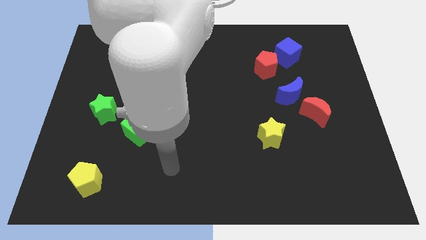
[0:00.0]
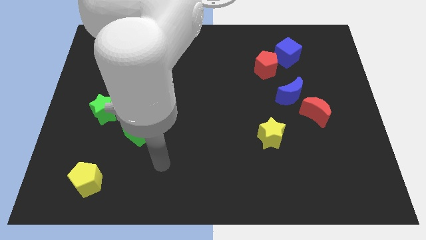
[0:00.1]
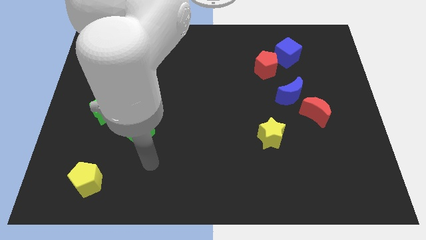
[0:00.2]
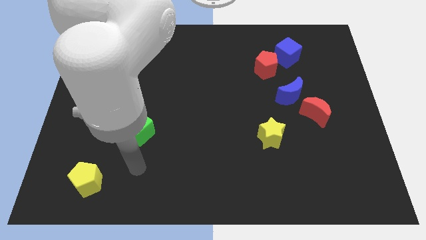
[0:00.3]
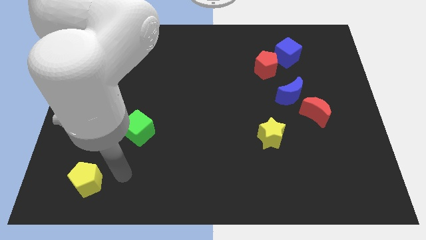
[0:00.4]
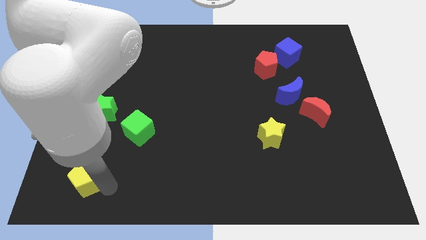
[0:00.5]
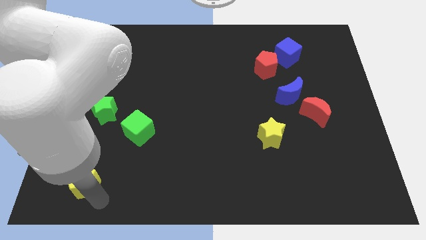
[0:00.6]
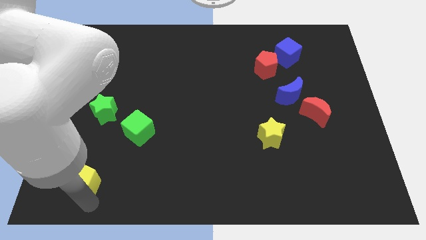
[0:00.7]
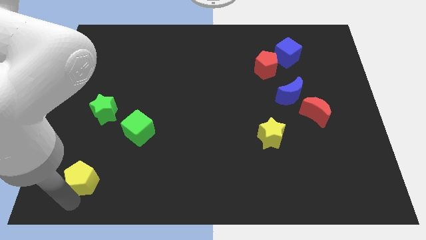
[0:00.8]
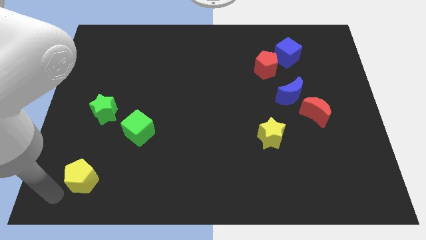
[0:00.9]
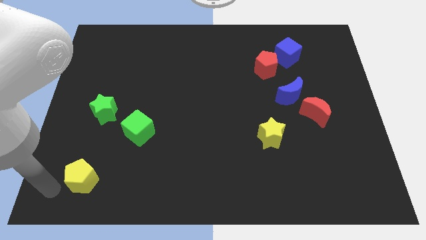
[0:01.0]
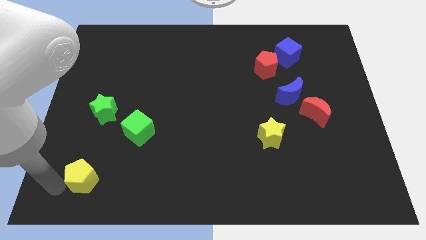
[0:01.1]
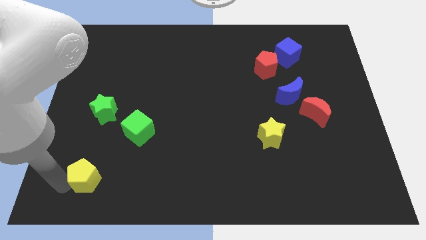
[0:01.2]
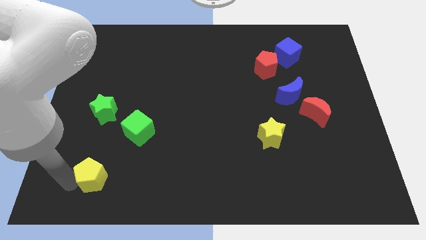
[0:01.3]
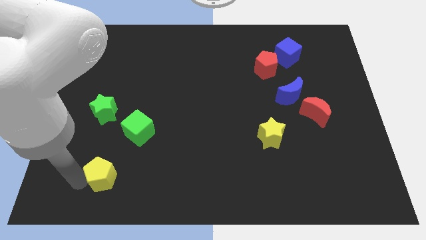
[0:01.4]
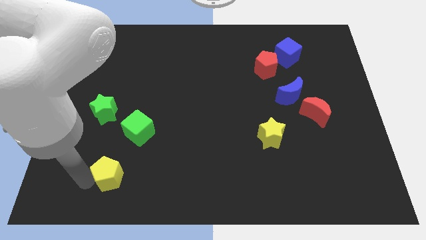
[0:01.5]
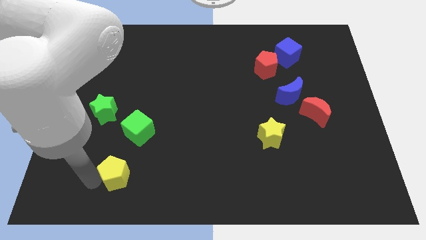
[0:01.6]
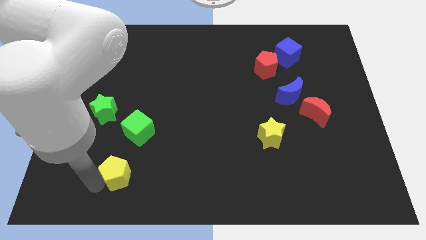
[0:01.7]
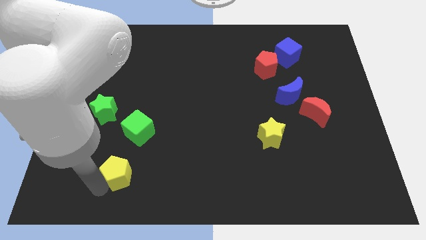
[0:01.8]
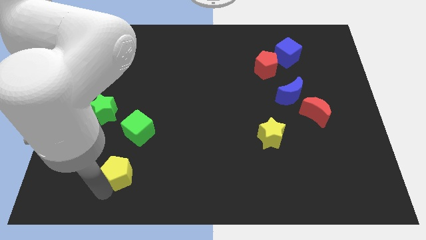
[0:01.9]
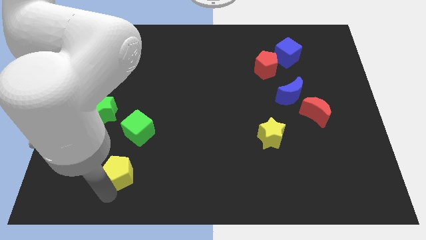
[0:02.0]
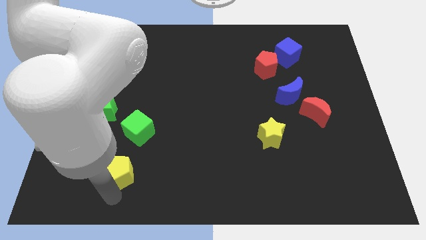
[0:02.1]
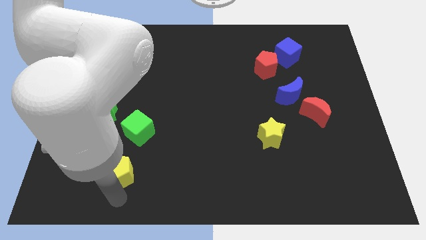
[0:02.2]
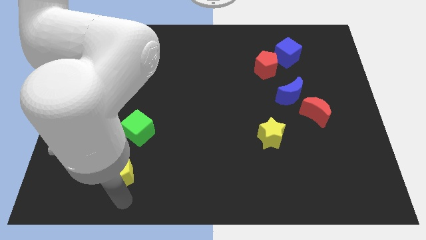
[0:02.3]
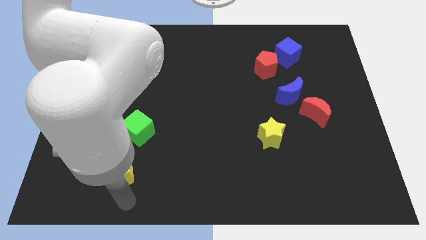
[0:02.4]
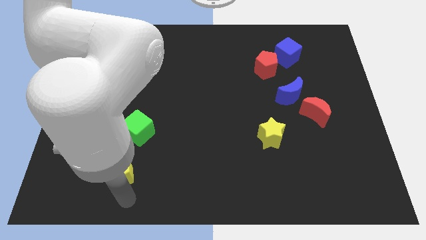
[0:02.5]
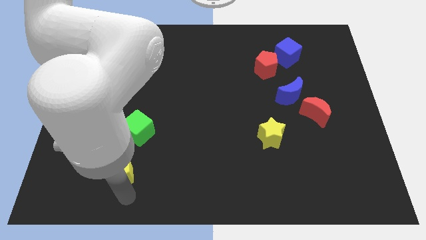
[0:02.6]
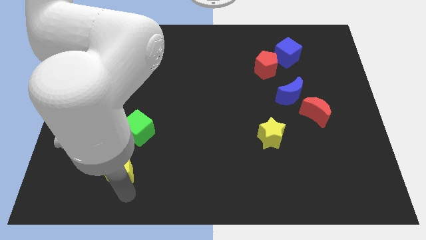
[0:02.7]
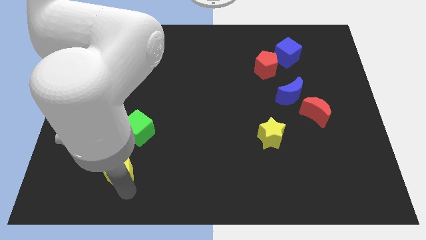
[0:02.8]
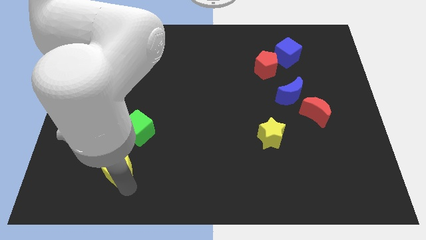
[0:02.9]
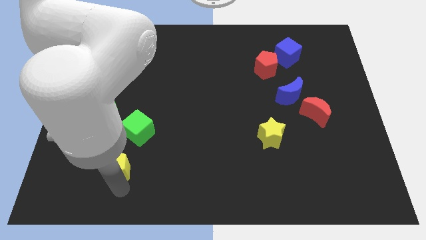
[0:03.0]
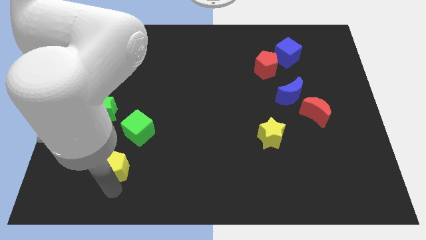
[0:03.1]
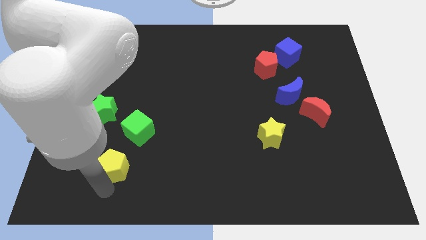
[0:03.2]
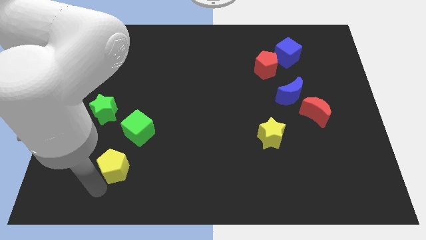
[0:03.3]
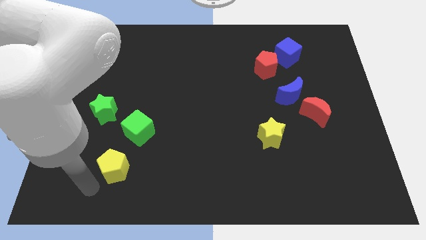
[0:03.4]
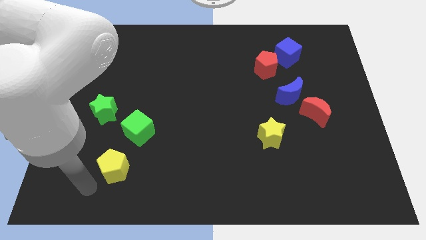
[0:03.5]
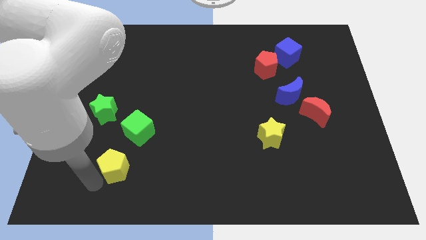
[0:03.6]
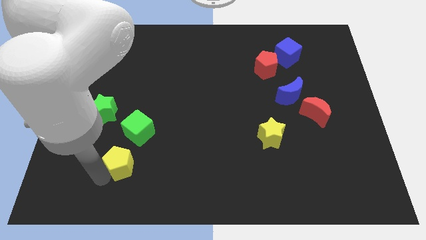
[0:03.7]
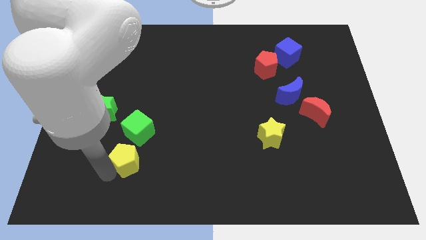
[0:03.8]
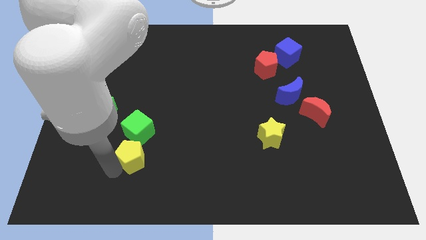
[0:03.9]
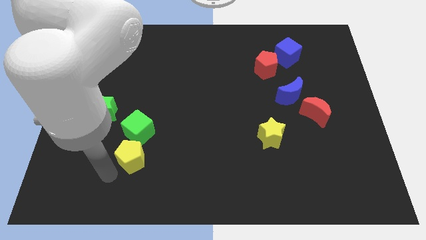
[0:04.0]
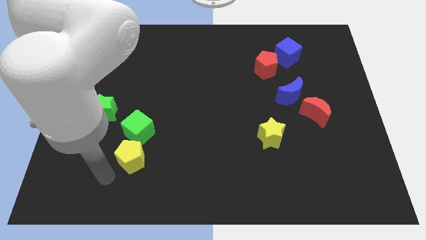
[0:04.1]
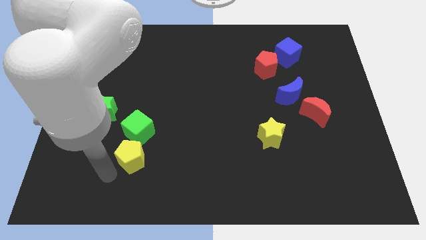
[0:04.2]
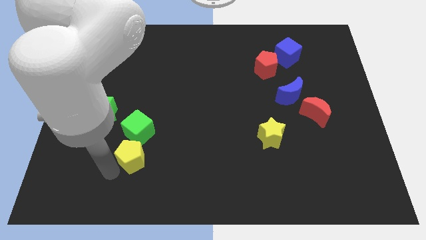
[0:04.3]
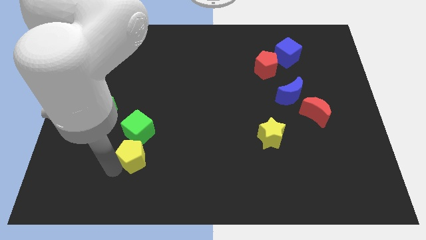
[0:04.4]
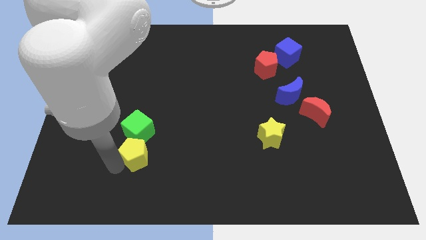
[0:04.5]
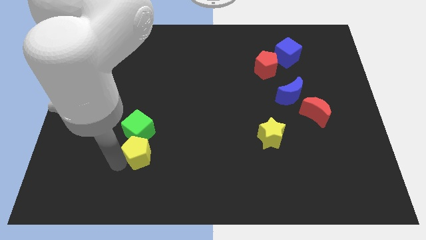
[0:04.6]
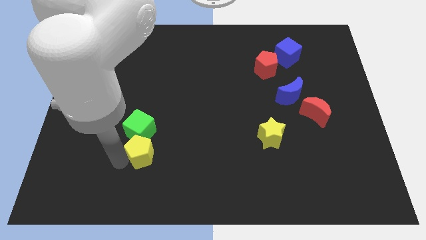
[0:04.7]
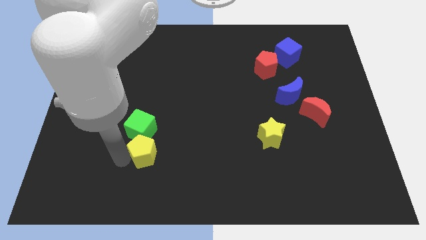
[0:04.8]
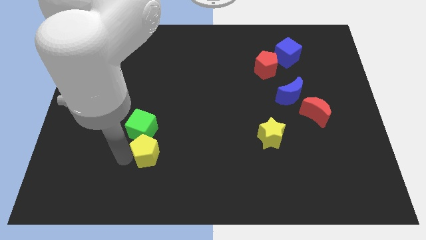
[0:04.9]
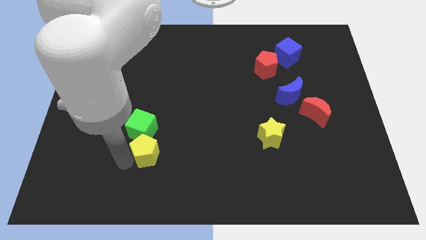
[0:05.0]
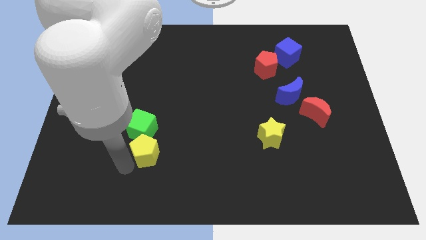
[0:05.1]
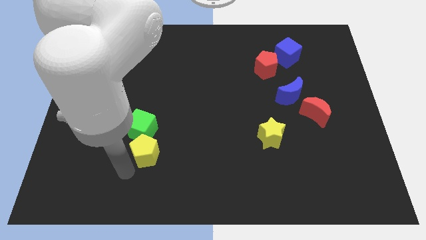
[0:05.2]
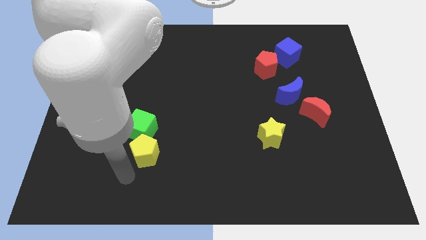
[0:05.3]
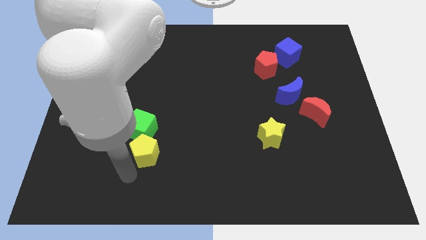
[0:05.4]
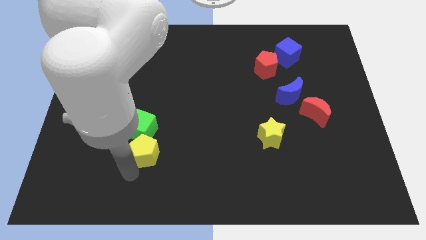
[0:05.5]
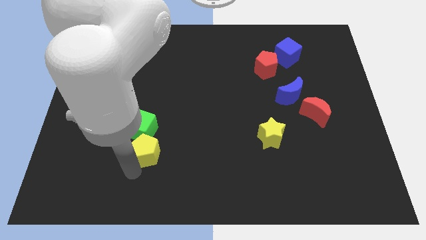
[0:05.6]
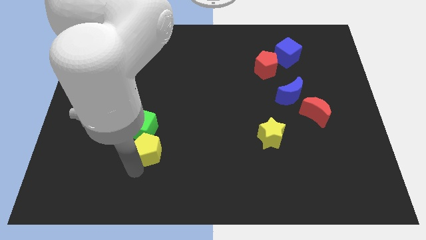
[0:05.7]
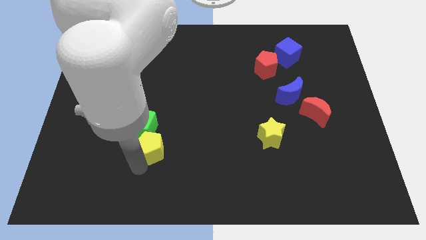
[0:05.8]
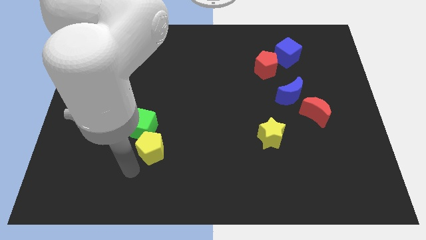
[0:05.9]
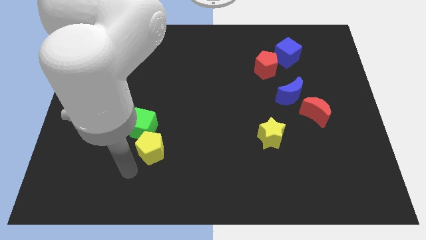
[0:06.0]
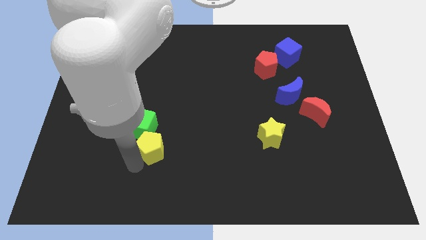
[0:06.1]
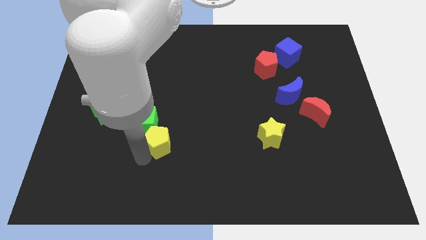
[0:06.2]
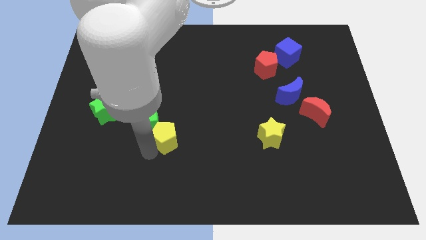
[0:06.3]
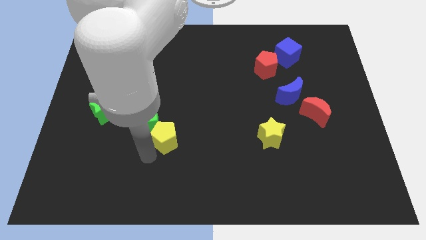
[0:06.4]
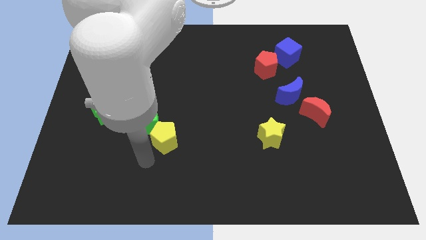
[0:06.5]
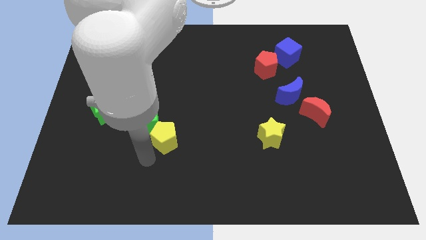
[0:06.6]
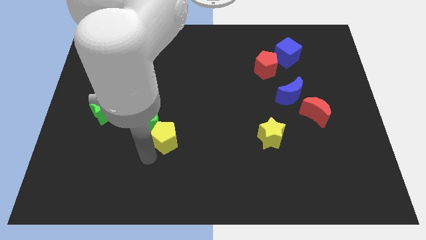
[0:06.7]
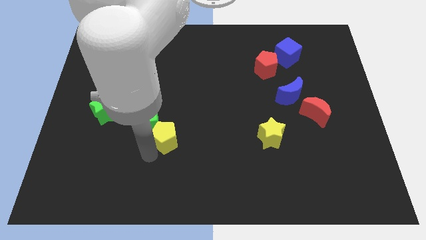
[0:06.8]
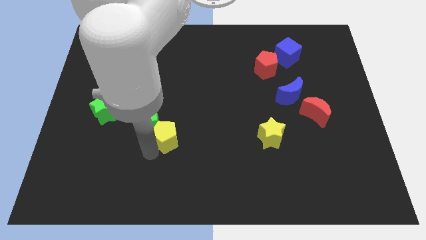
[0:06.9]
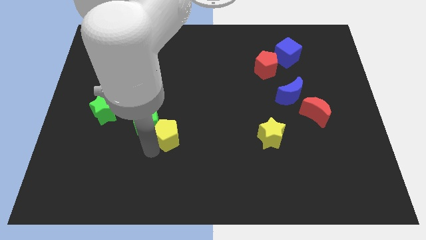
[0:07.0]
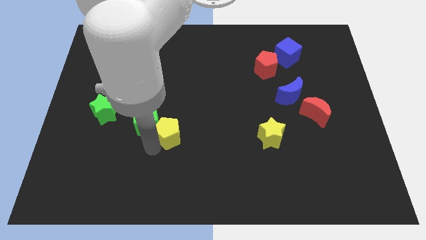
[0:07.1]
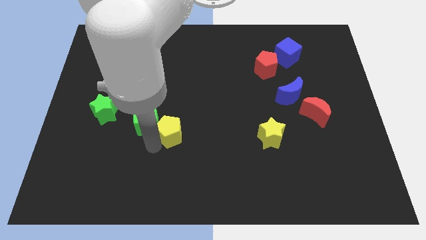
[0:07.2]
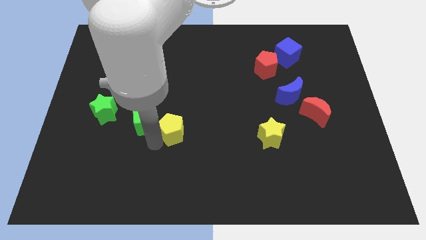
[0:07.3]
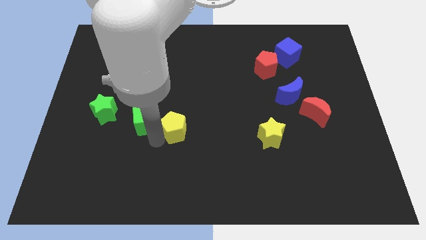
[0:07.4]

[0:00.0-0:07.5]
push the yellow pentagon to the middle
